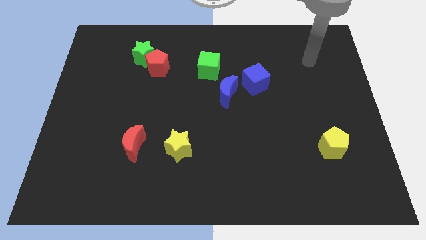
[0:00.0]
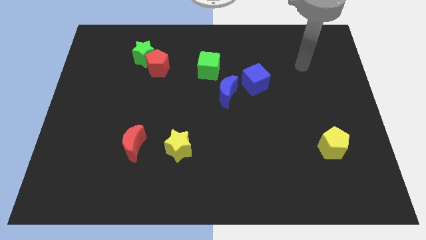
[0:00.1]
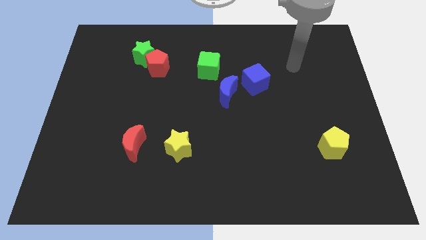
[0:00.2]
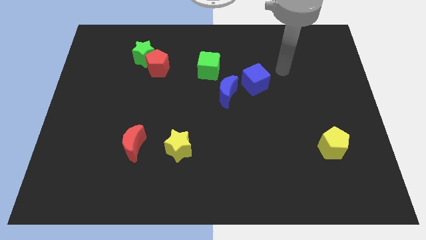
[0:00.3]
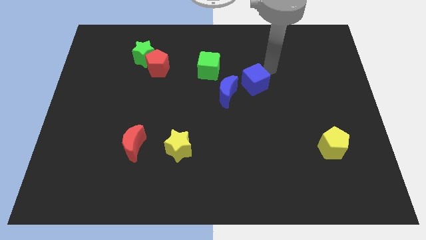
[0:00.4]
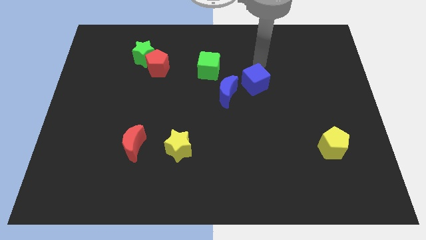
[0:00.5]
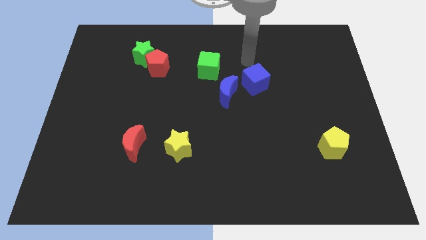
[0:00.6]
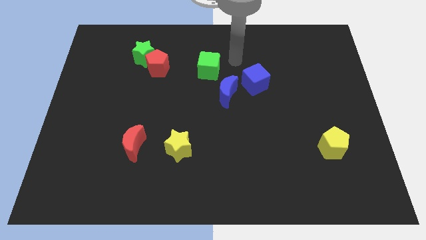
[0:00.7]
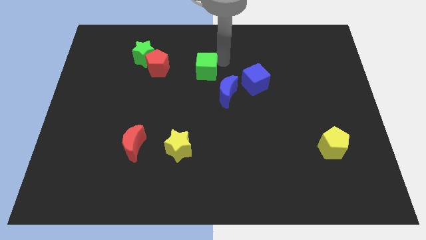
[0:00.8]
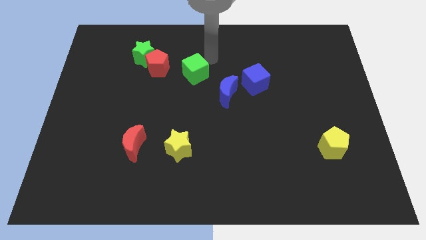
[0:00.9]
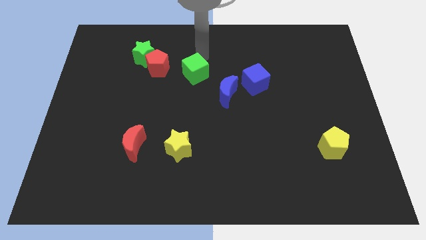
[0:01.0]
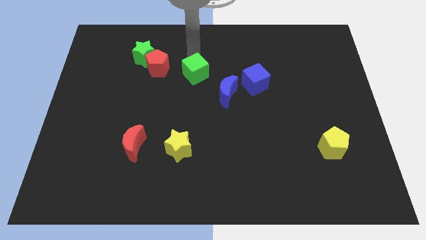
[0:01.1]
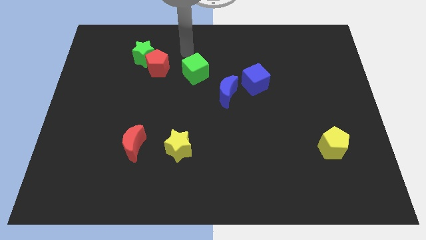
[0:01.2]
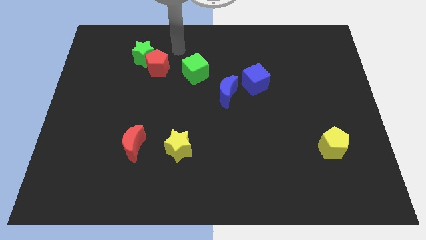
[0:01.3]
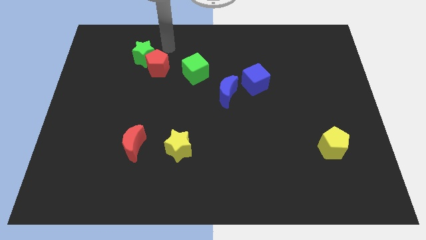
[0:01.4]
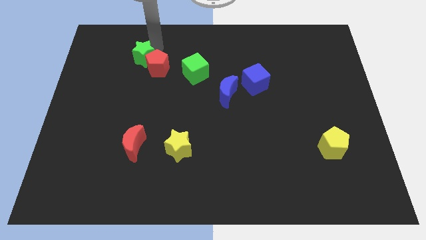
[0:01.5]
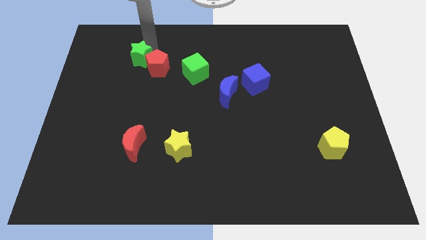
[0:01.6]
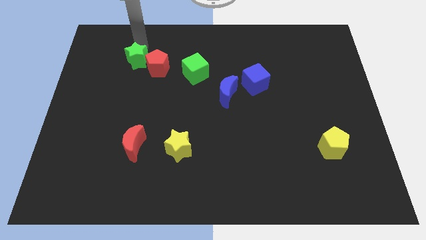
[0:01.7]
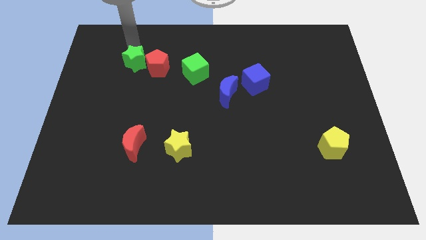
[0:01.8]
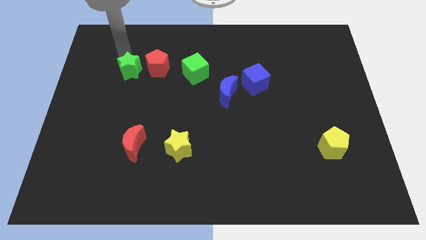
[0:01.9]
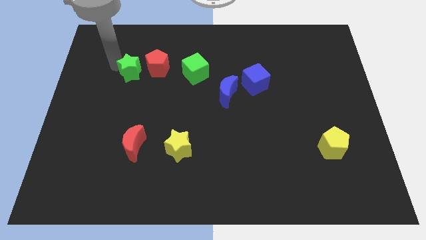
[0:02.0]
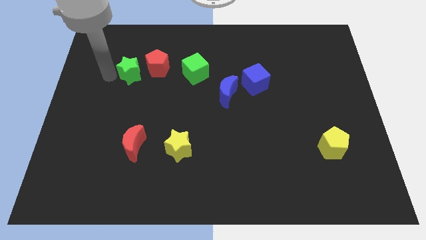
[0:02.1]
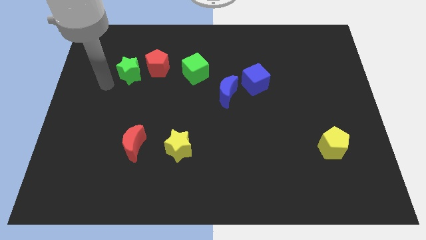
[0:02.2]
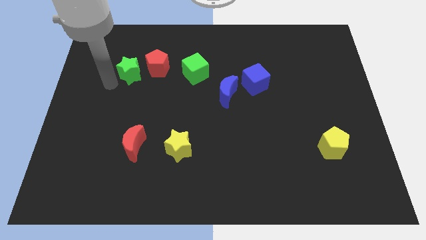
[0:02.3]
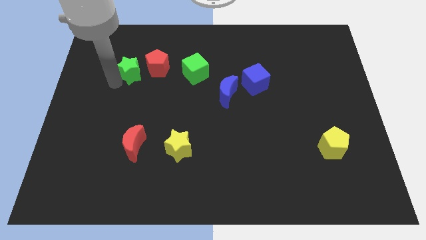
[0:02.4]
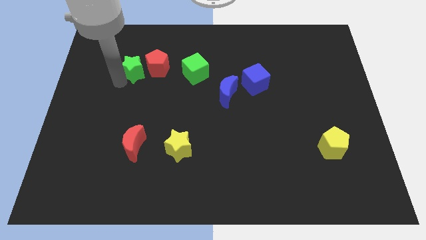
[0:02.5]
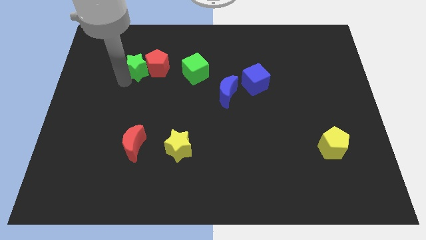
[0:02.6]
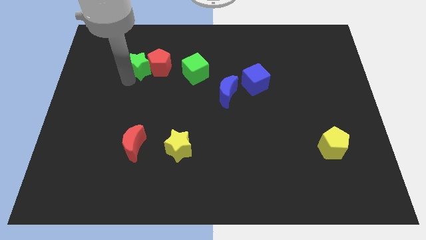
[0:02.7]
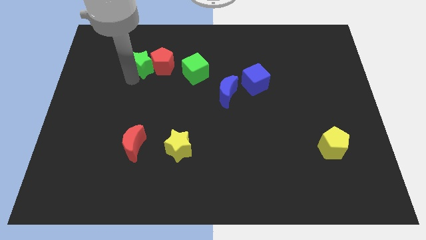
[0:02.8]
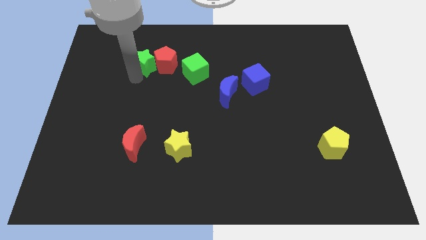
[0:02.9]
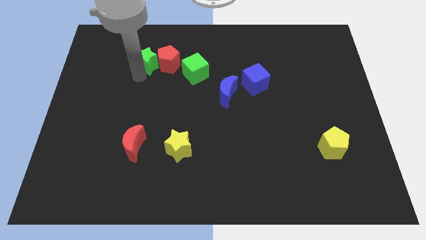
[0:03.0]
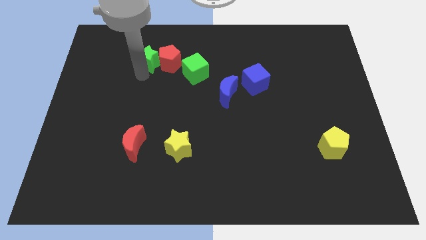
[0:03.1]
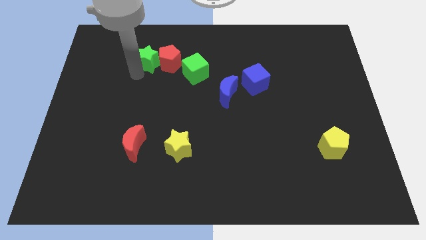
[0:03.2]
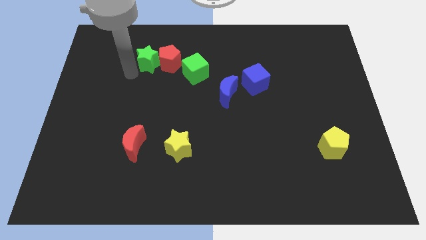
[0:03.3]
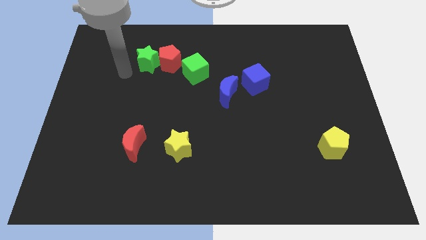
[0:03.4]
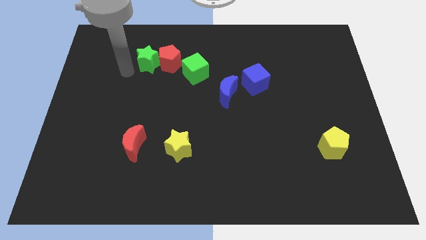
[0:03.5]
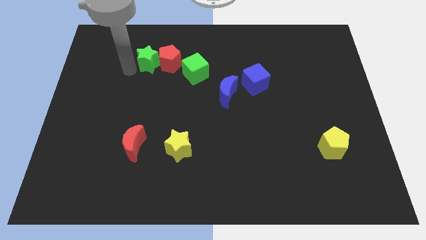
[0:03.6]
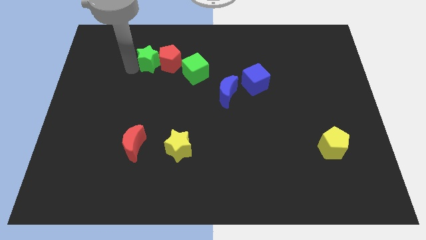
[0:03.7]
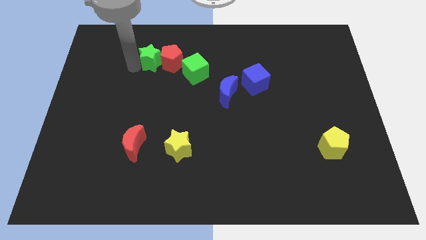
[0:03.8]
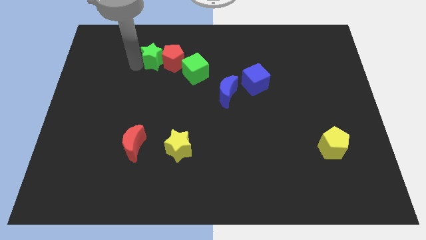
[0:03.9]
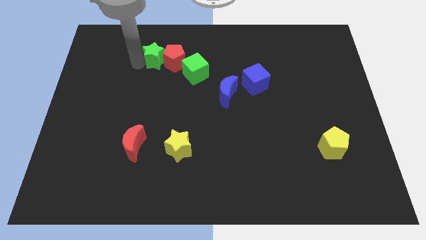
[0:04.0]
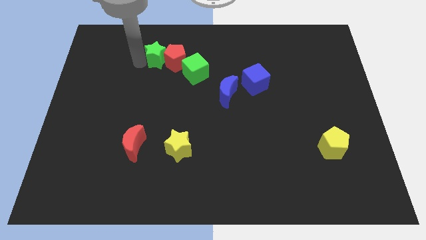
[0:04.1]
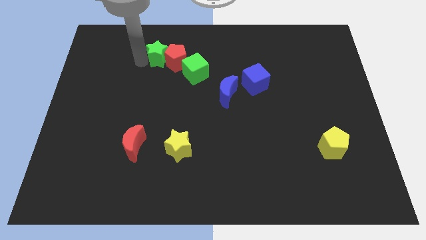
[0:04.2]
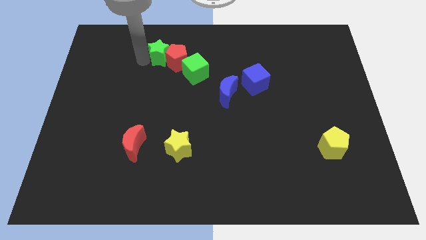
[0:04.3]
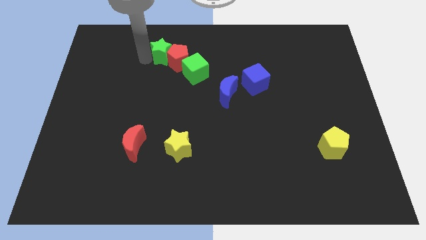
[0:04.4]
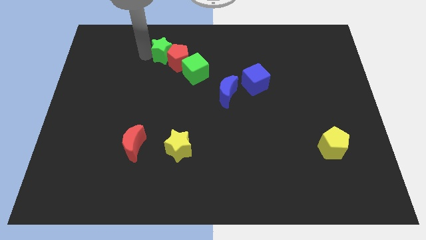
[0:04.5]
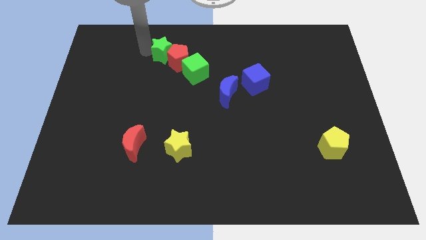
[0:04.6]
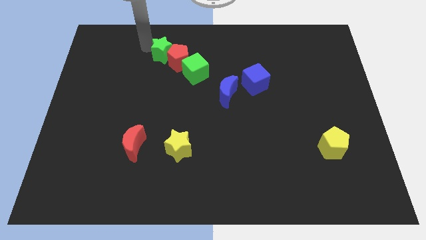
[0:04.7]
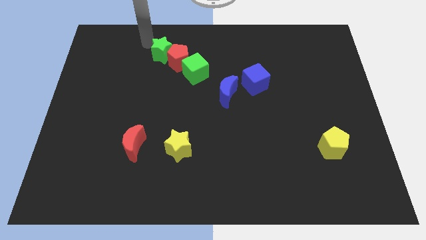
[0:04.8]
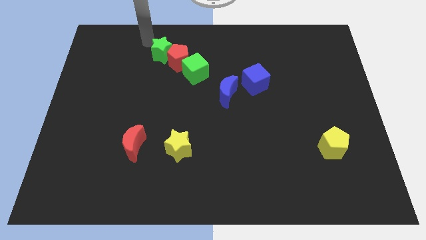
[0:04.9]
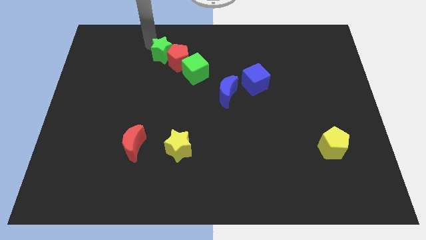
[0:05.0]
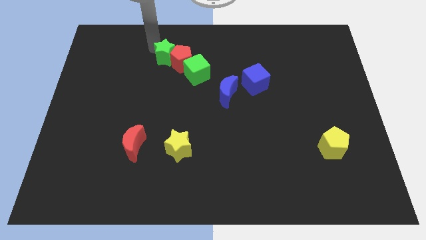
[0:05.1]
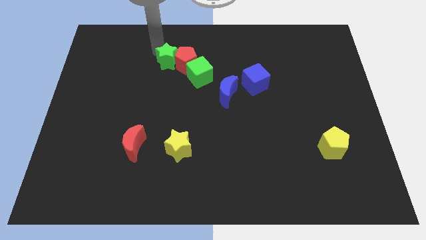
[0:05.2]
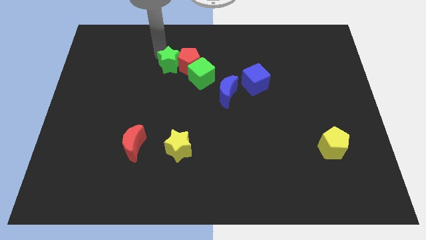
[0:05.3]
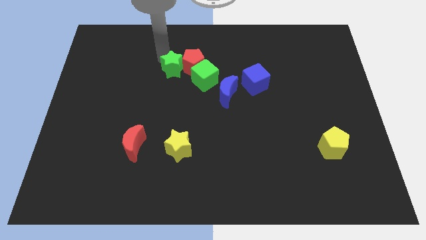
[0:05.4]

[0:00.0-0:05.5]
move the green star down and then right a little bit

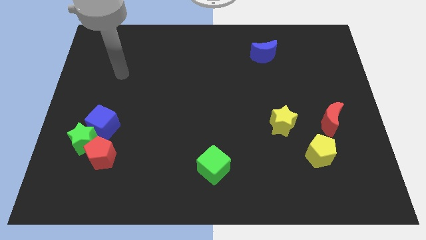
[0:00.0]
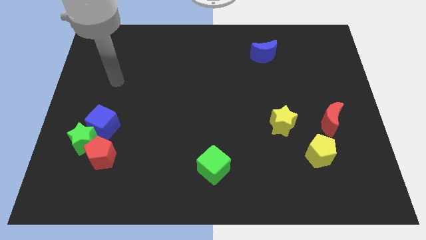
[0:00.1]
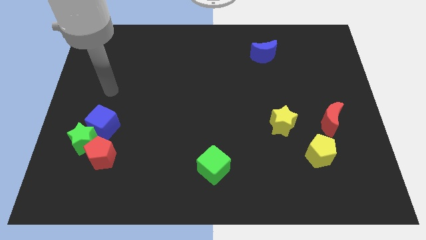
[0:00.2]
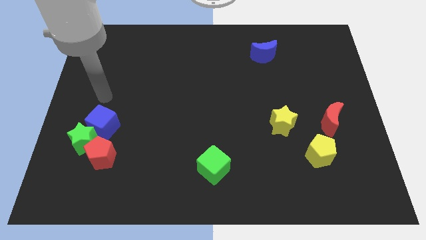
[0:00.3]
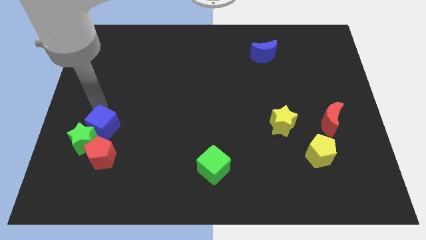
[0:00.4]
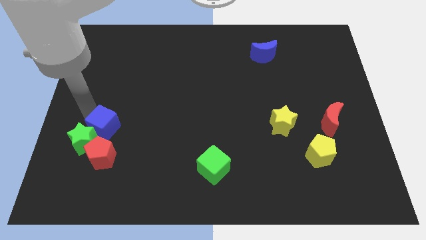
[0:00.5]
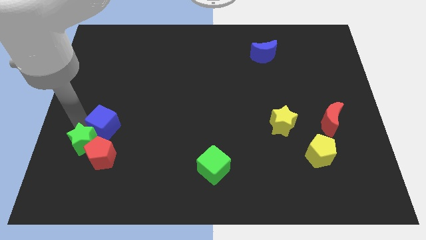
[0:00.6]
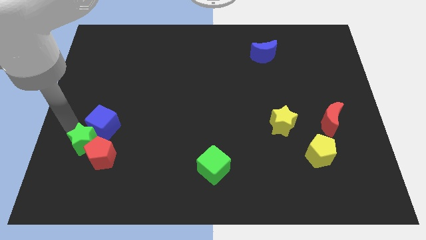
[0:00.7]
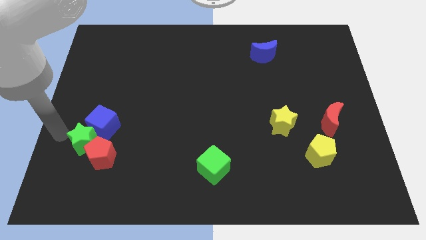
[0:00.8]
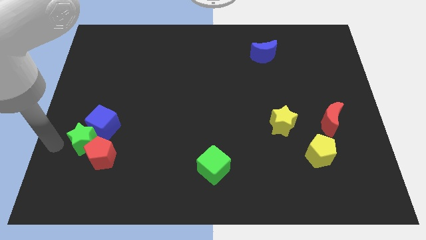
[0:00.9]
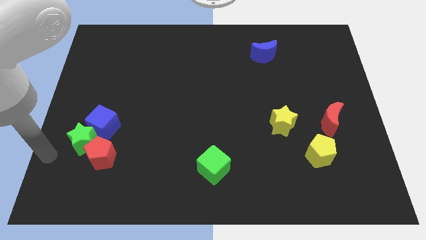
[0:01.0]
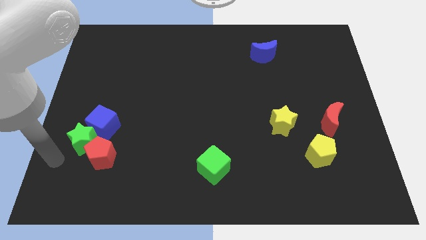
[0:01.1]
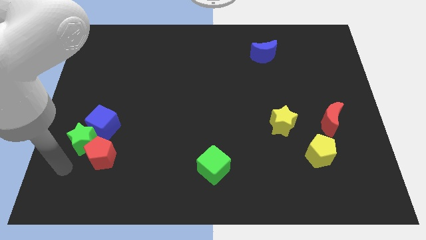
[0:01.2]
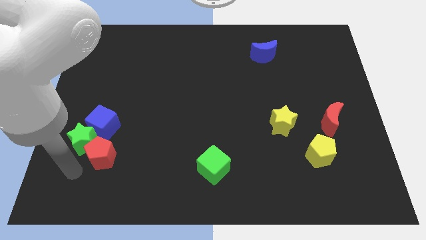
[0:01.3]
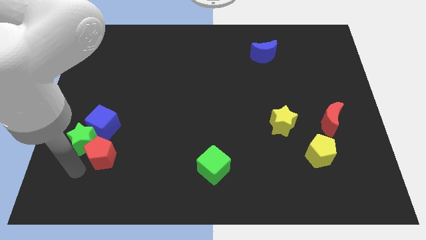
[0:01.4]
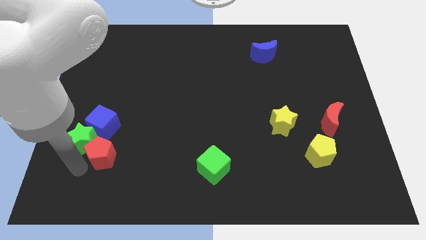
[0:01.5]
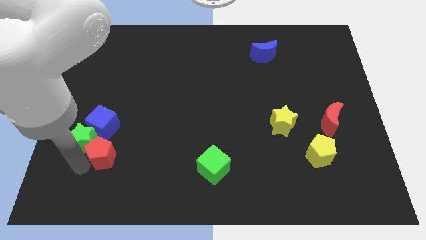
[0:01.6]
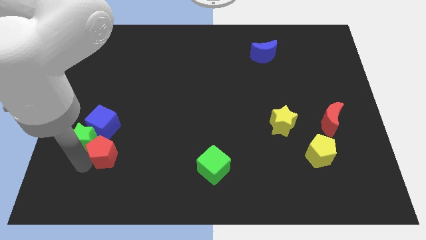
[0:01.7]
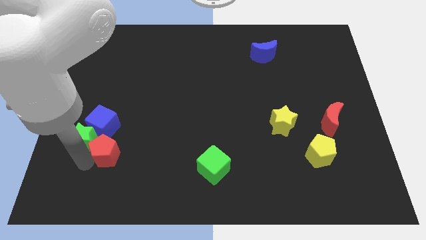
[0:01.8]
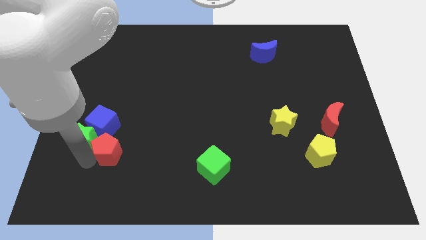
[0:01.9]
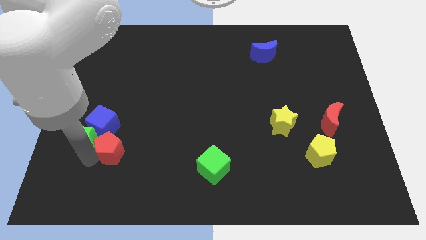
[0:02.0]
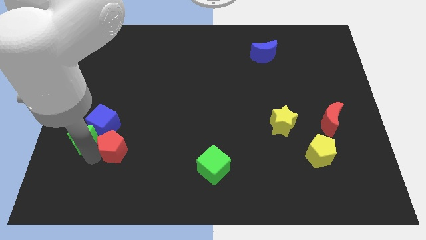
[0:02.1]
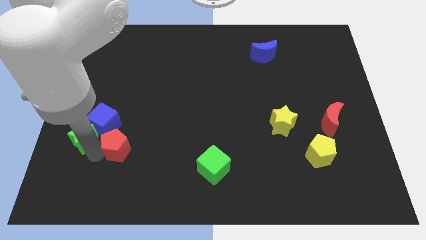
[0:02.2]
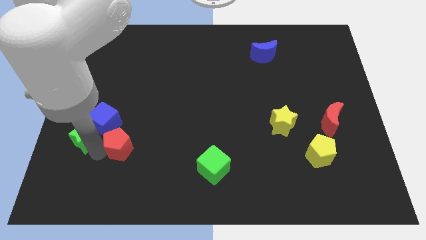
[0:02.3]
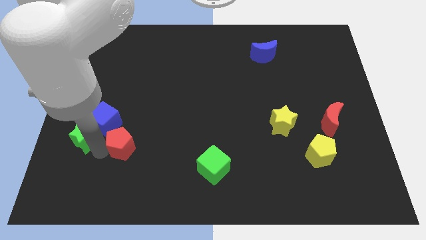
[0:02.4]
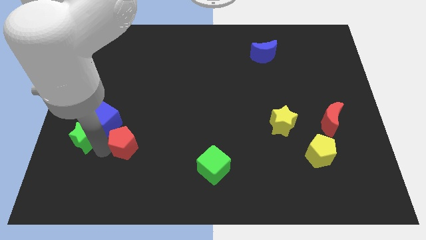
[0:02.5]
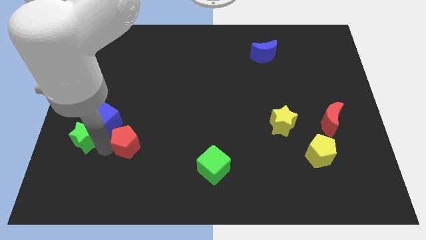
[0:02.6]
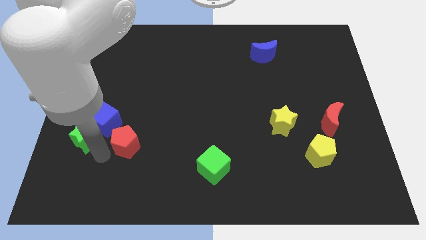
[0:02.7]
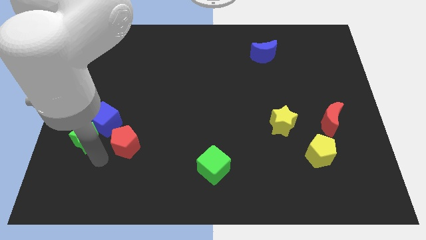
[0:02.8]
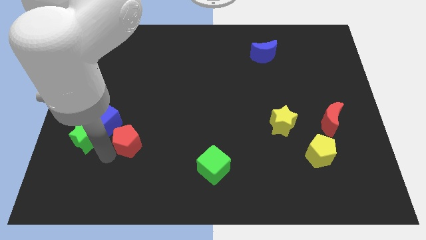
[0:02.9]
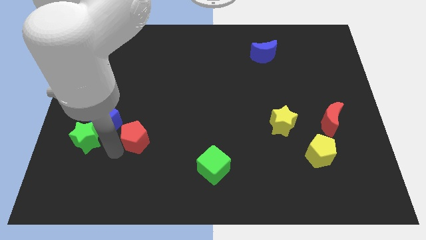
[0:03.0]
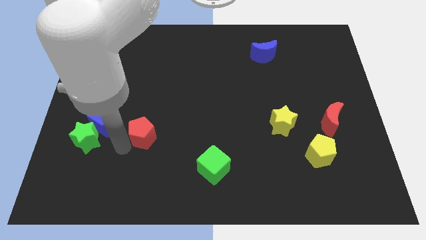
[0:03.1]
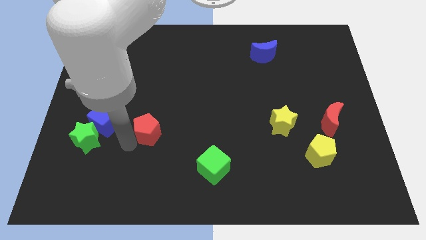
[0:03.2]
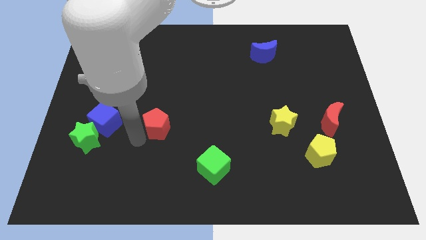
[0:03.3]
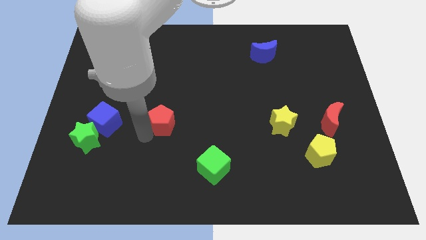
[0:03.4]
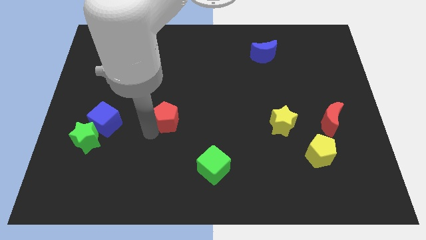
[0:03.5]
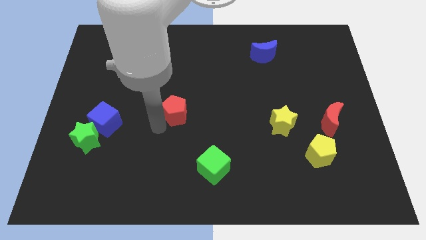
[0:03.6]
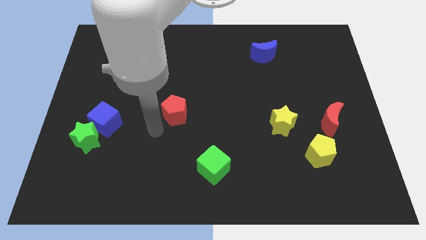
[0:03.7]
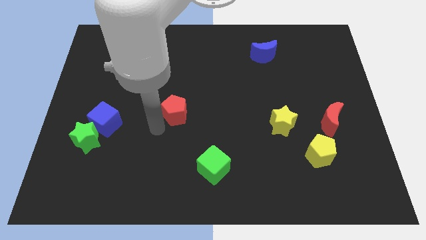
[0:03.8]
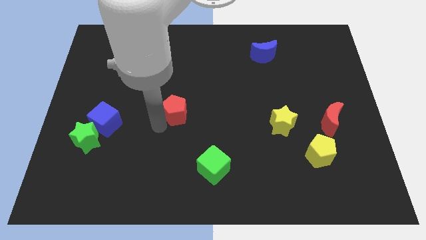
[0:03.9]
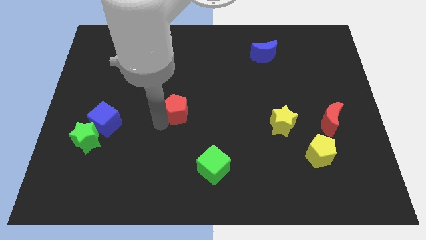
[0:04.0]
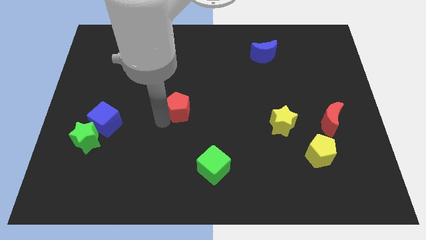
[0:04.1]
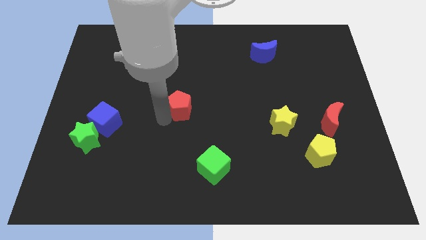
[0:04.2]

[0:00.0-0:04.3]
slide the red pentagon upwards and to the right
